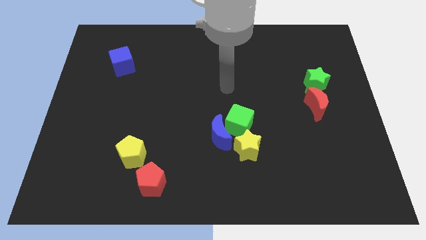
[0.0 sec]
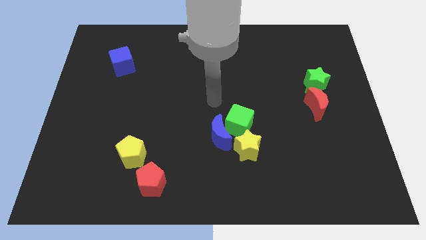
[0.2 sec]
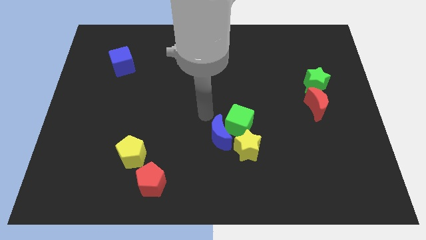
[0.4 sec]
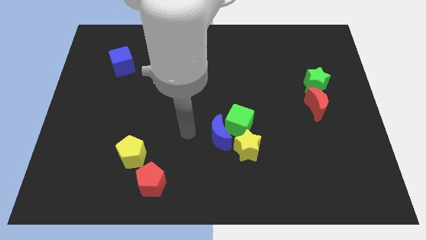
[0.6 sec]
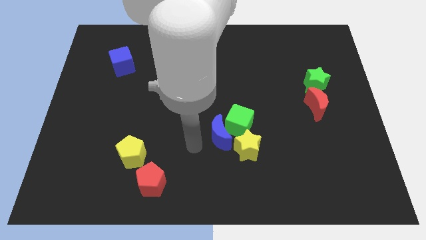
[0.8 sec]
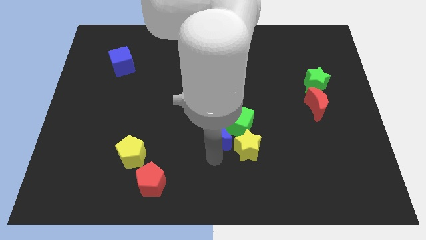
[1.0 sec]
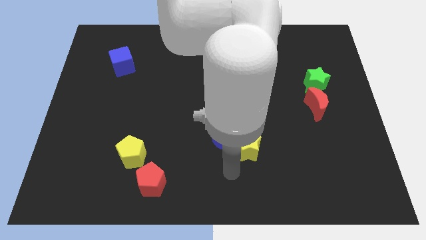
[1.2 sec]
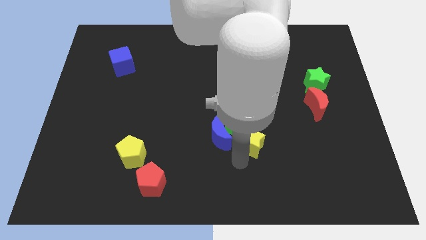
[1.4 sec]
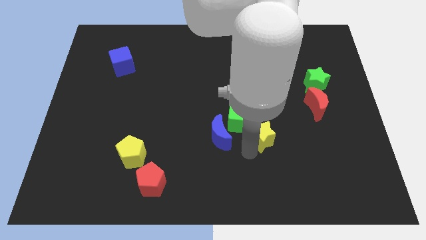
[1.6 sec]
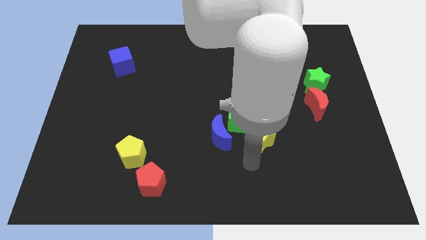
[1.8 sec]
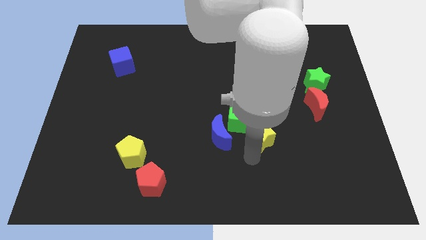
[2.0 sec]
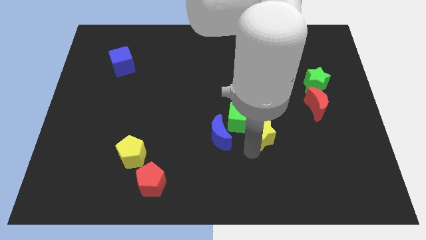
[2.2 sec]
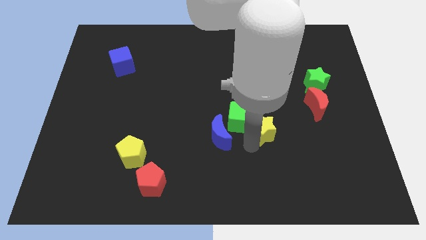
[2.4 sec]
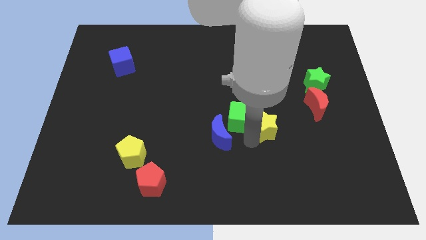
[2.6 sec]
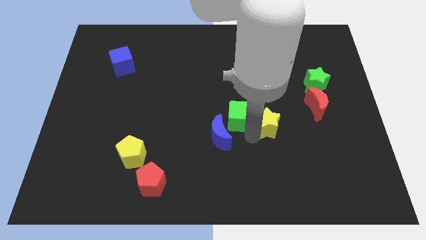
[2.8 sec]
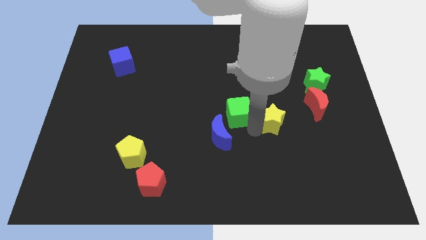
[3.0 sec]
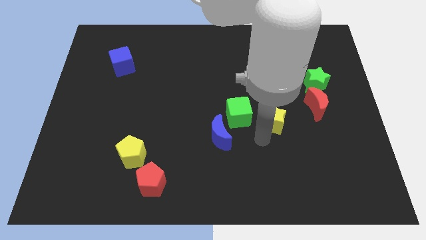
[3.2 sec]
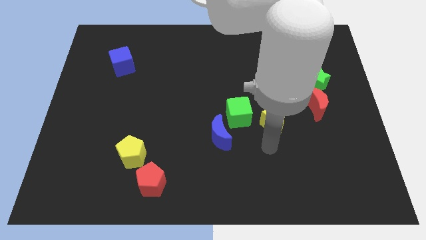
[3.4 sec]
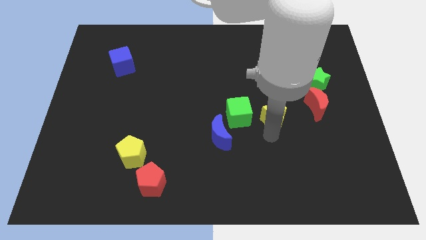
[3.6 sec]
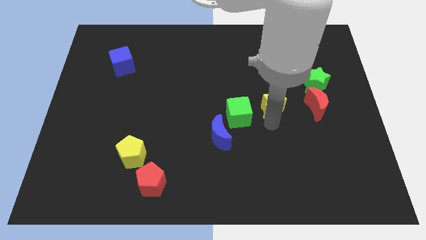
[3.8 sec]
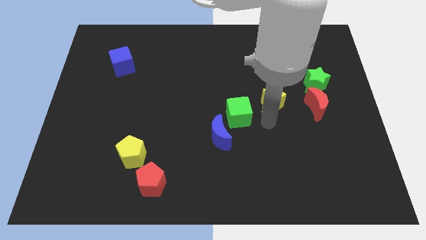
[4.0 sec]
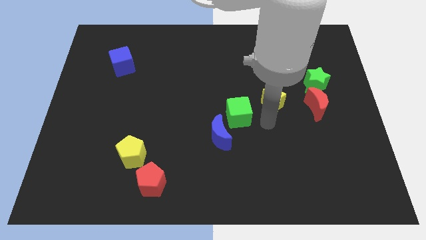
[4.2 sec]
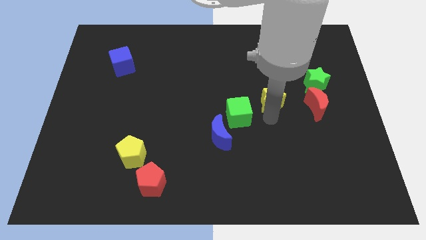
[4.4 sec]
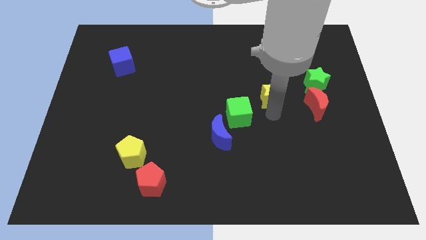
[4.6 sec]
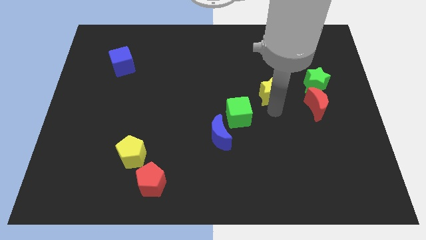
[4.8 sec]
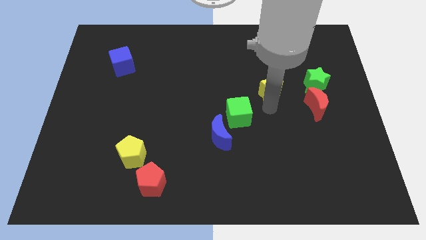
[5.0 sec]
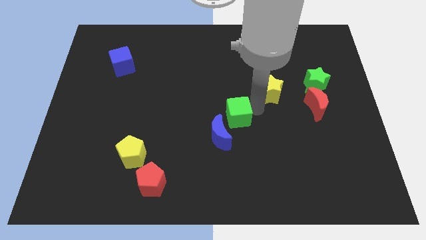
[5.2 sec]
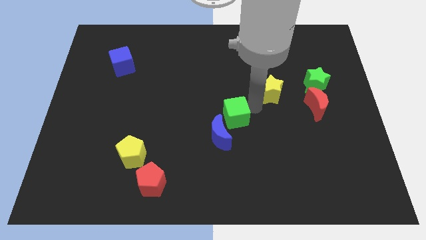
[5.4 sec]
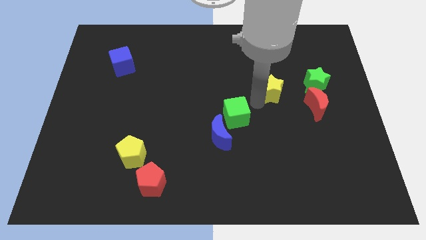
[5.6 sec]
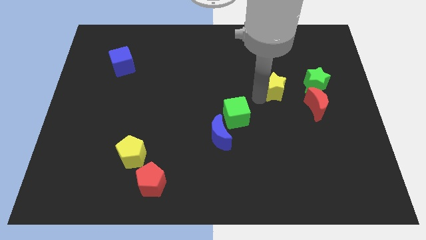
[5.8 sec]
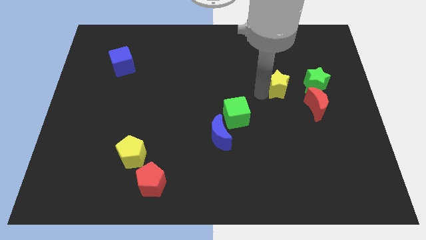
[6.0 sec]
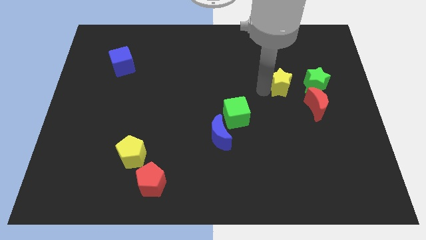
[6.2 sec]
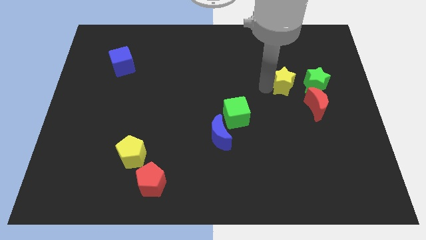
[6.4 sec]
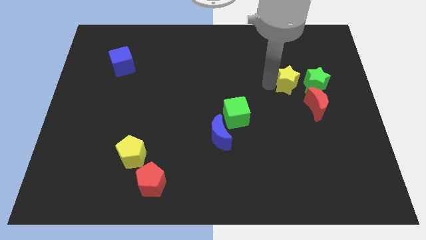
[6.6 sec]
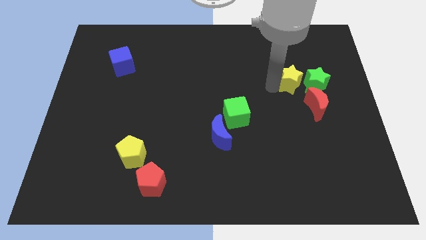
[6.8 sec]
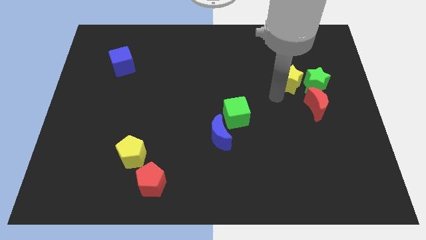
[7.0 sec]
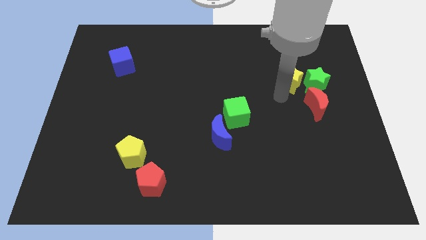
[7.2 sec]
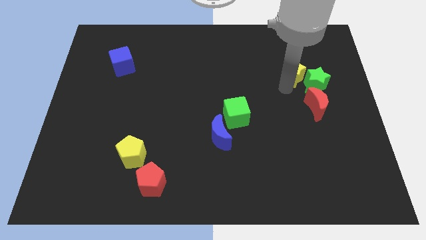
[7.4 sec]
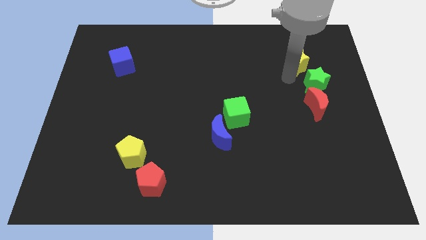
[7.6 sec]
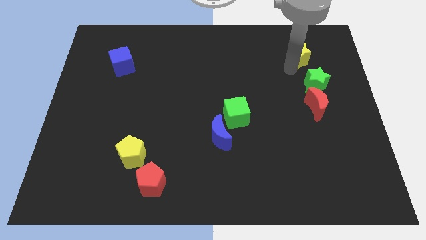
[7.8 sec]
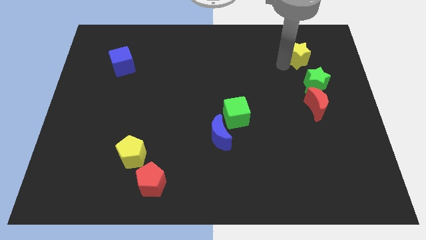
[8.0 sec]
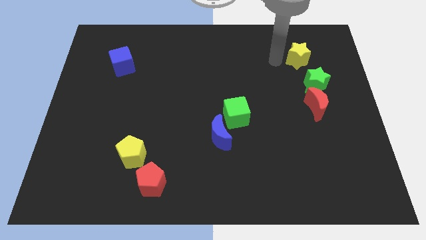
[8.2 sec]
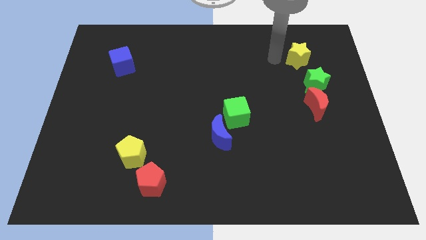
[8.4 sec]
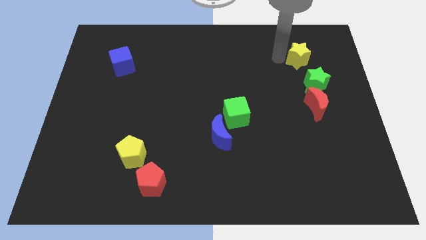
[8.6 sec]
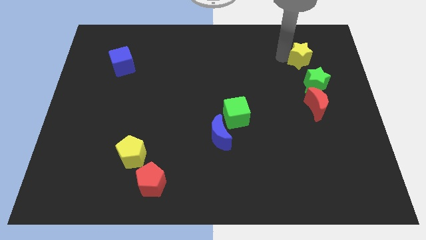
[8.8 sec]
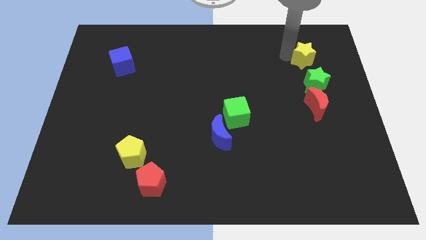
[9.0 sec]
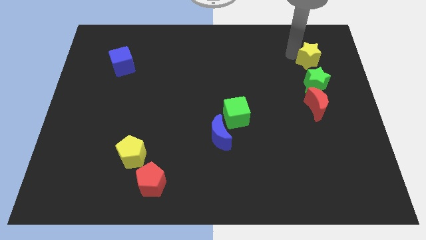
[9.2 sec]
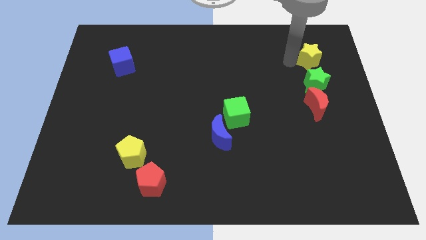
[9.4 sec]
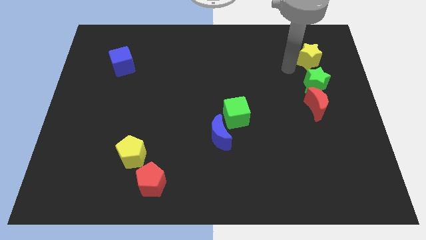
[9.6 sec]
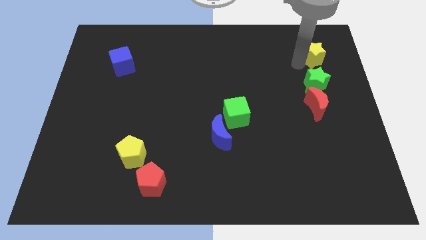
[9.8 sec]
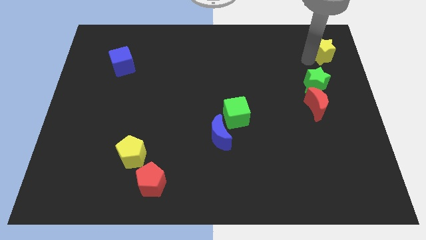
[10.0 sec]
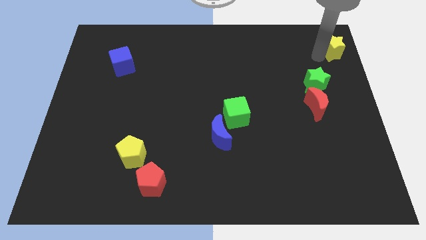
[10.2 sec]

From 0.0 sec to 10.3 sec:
put the yellow star to the top right corner
